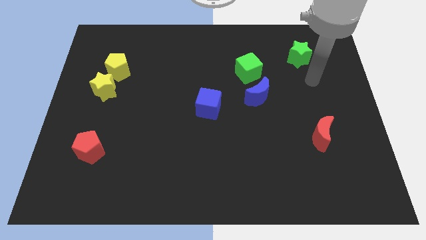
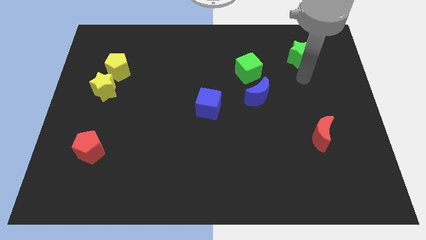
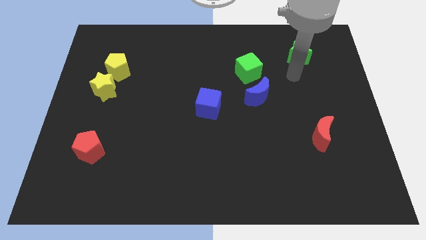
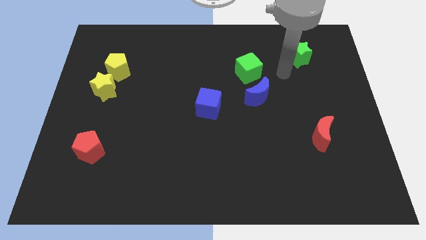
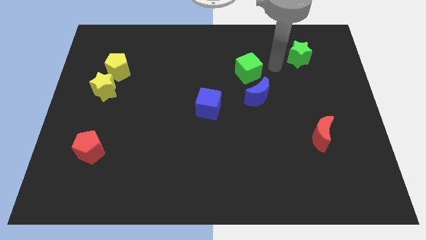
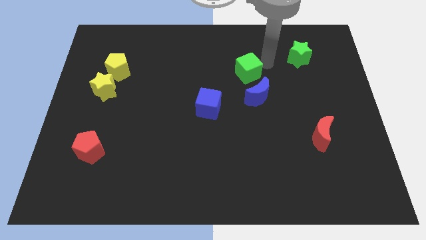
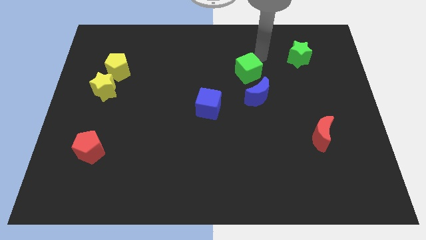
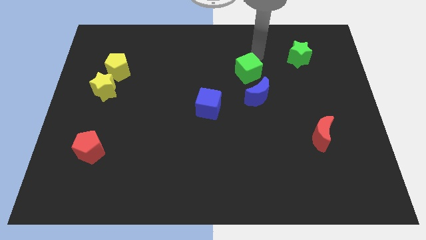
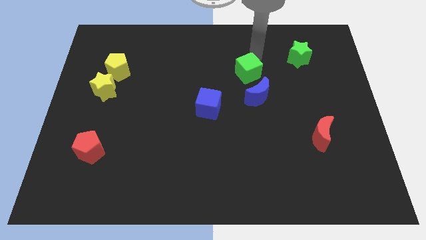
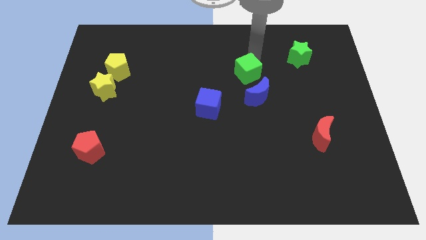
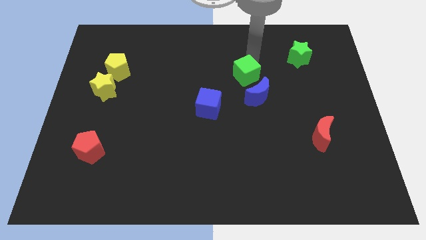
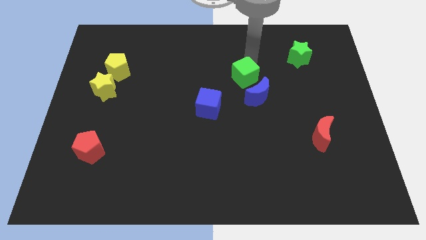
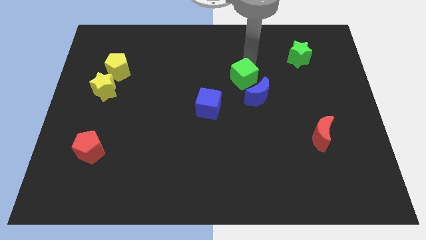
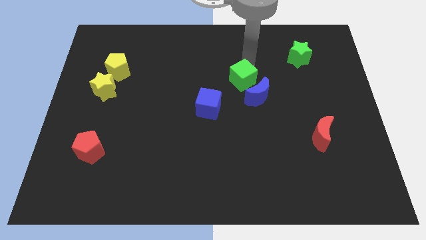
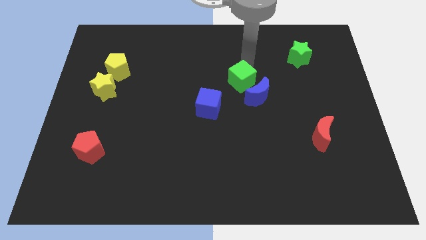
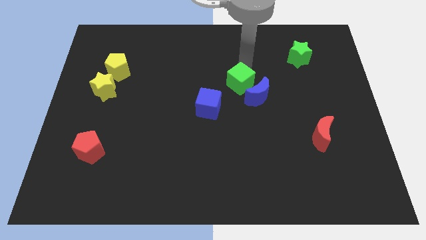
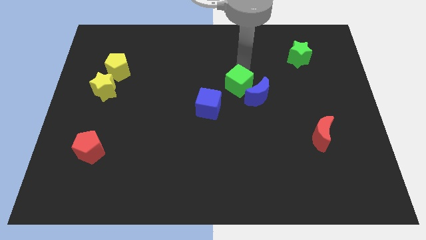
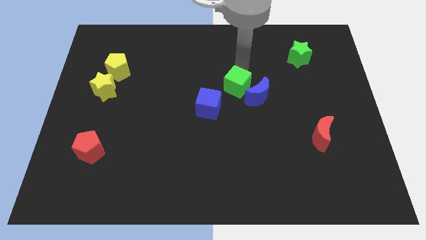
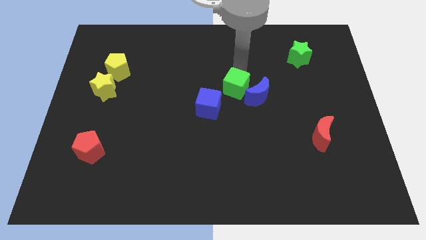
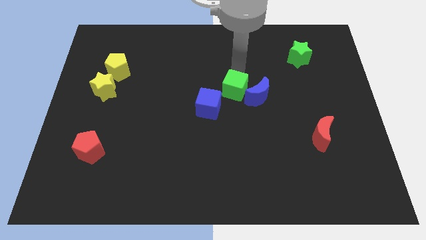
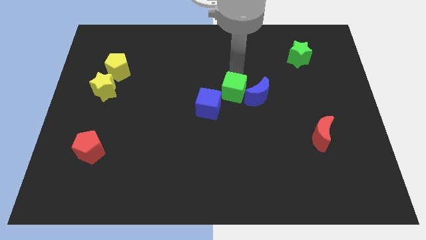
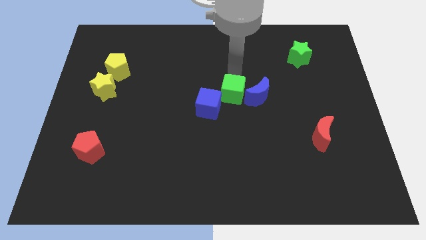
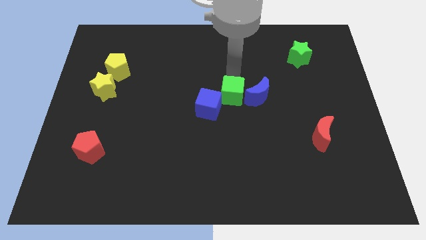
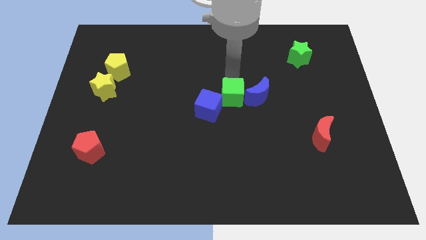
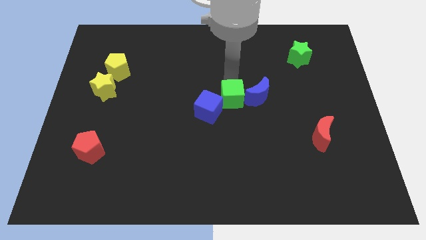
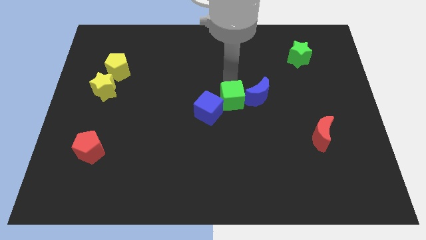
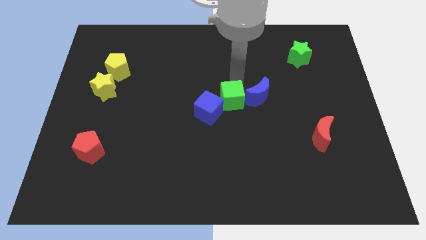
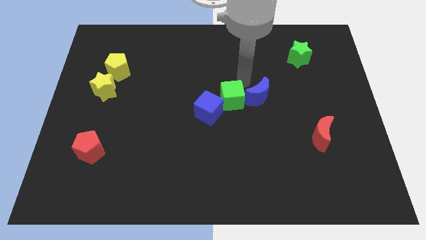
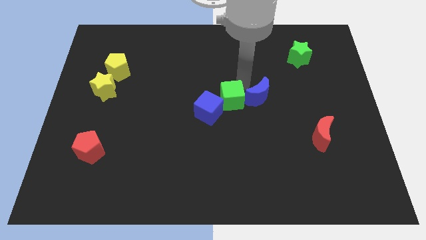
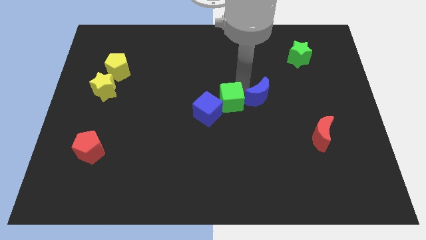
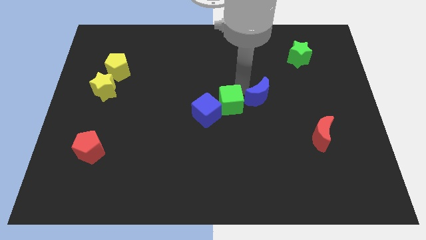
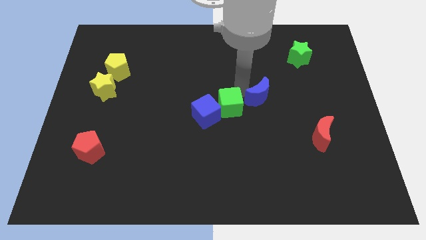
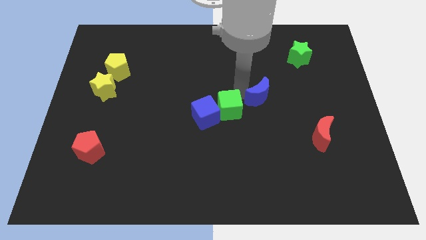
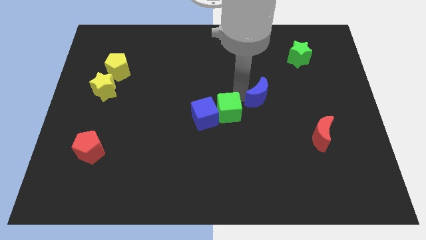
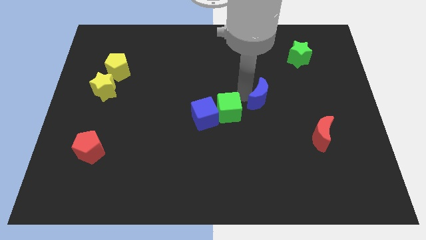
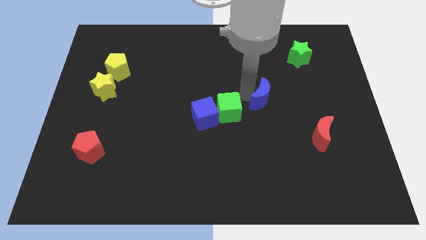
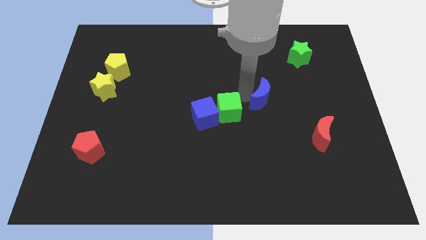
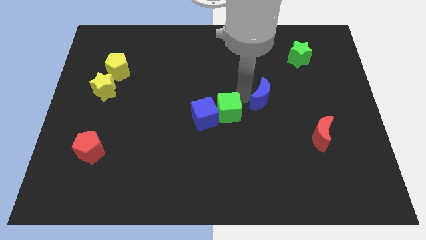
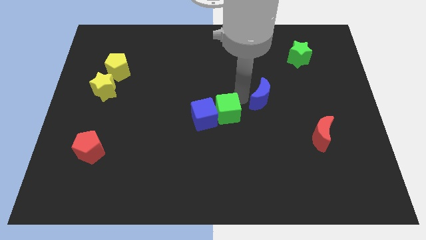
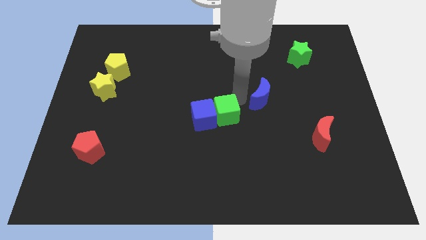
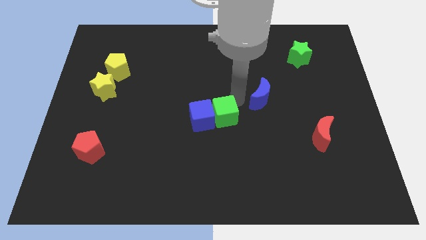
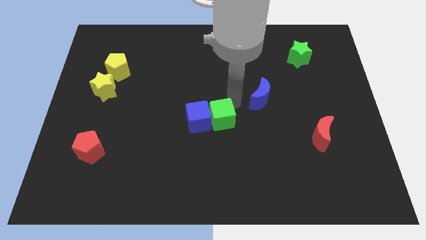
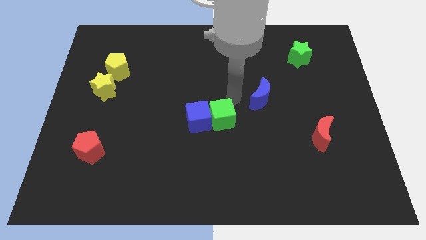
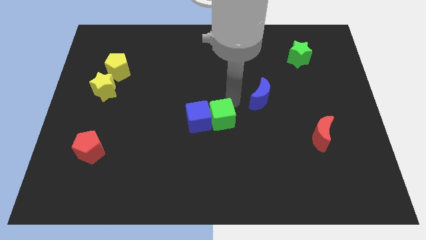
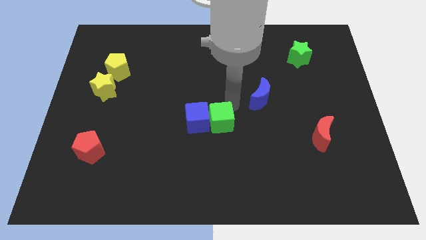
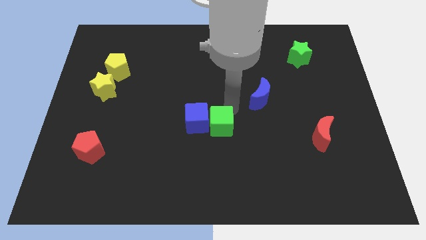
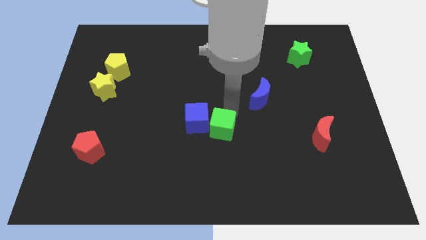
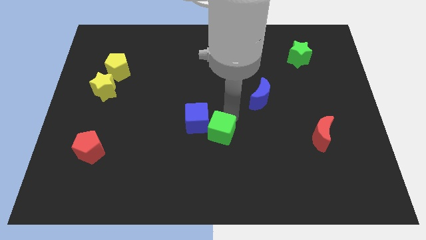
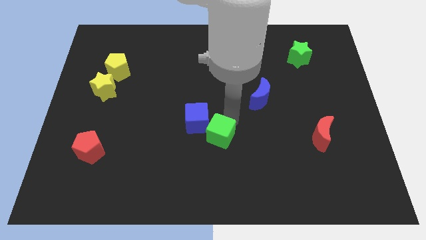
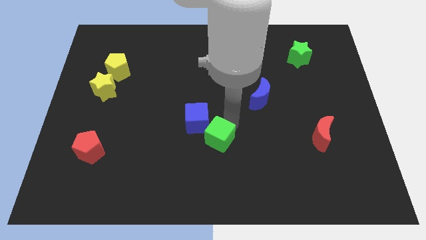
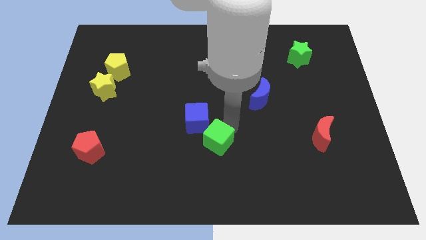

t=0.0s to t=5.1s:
put the green cube below the blue cube

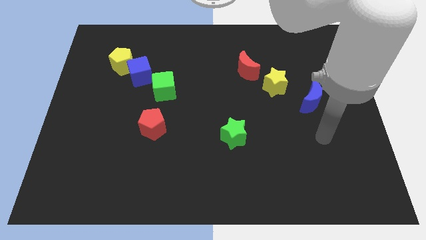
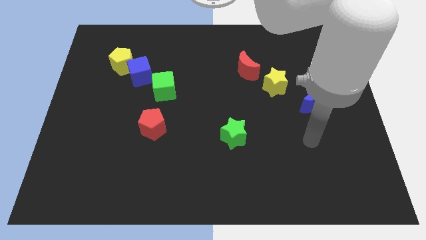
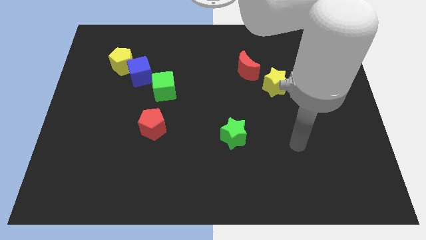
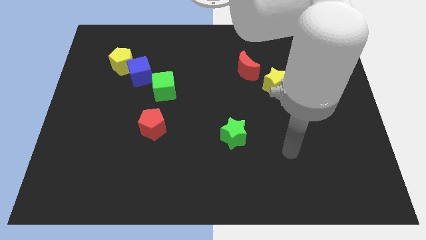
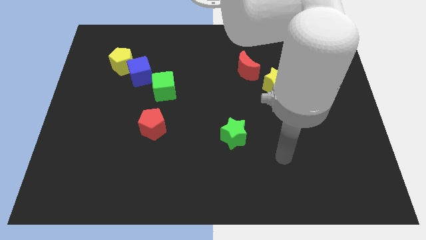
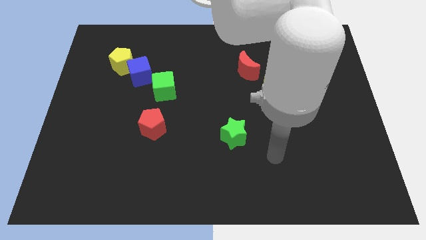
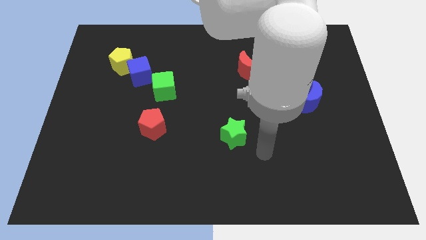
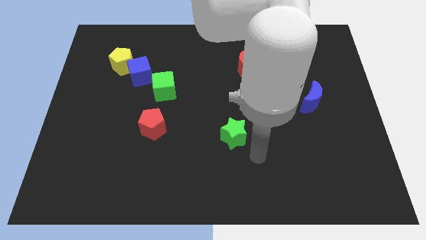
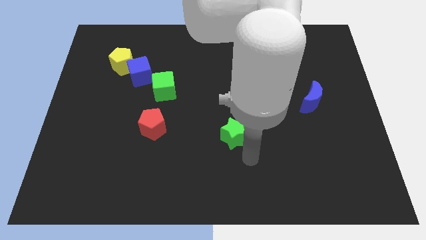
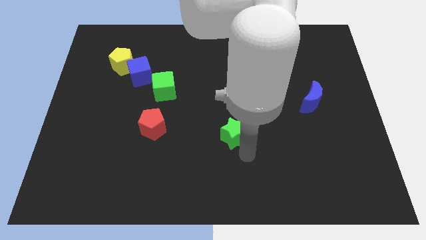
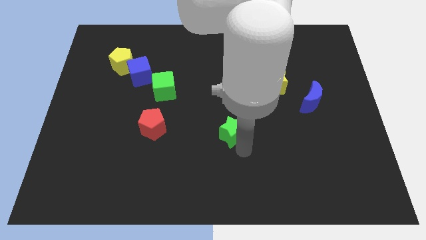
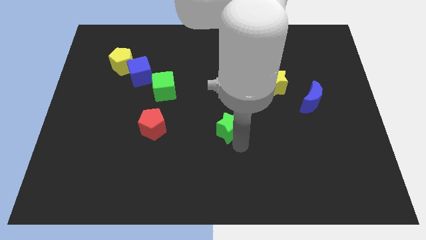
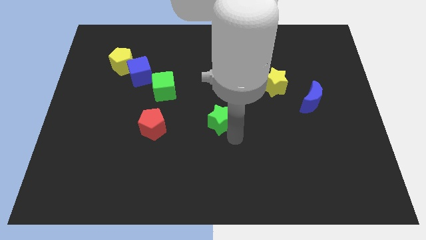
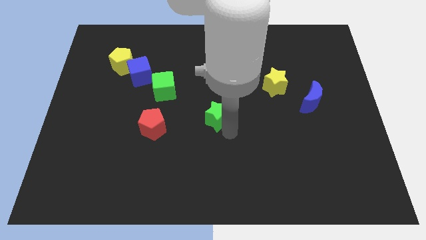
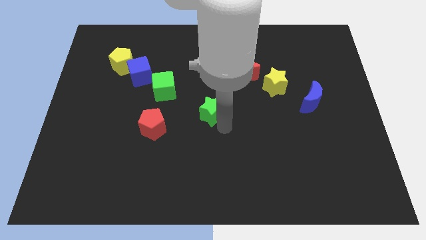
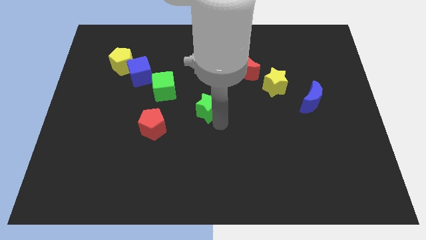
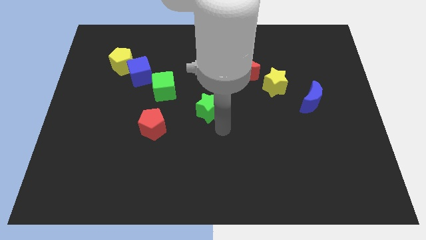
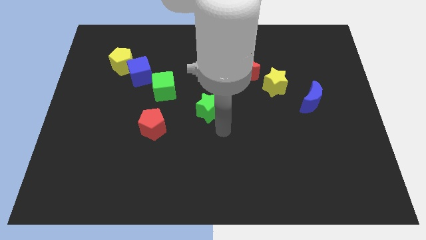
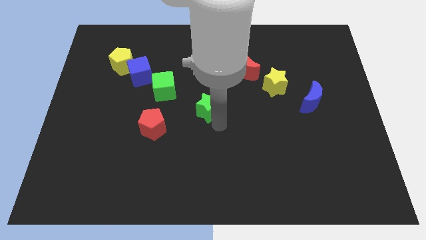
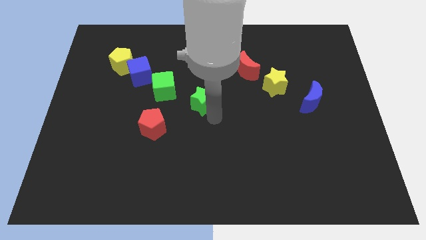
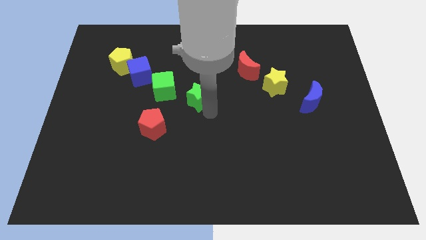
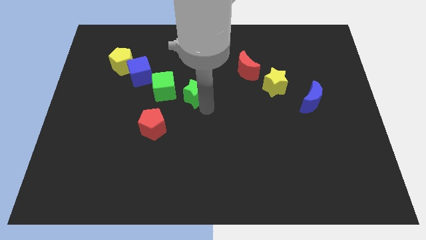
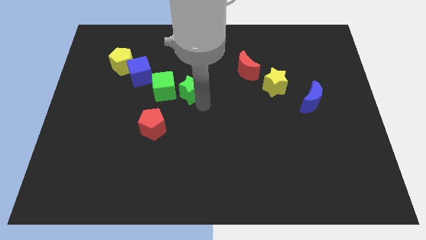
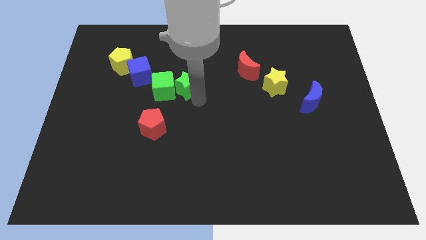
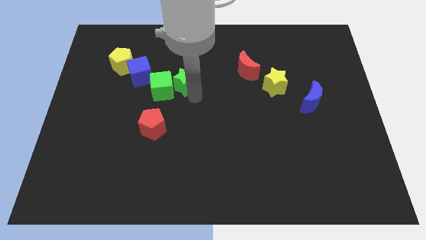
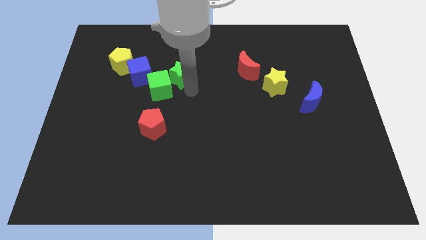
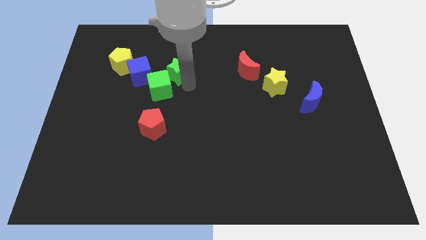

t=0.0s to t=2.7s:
push the green star right of the yellow pentagon
